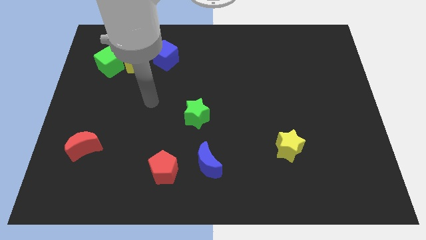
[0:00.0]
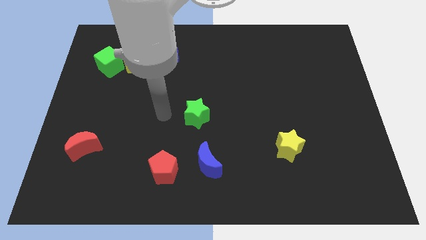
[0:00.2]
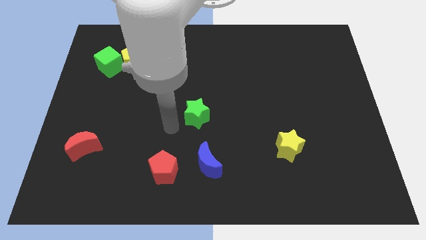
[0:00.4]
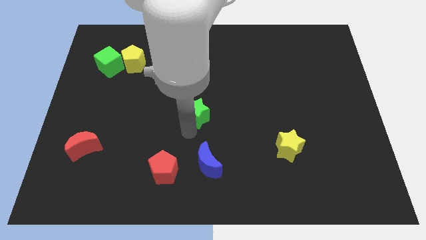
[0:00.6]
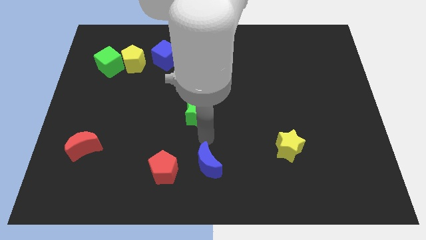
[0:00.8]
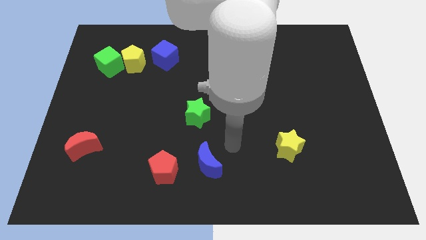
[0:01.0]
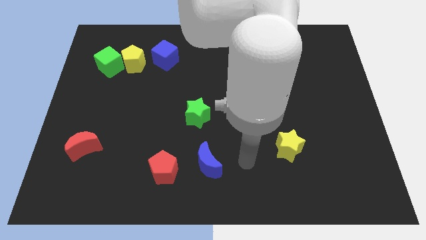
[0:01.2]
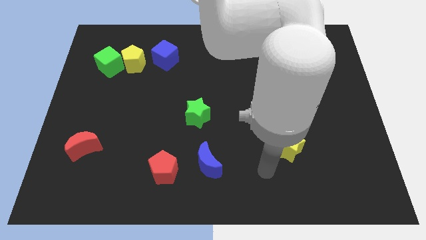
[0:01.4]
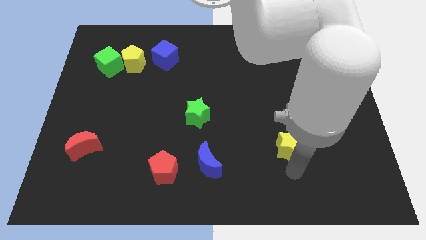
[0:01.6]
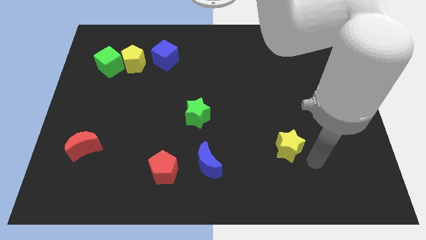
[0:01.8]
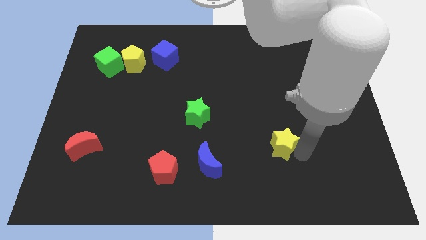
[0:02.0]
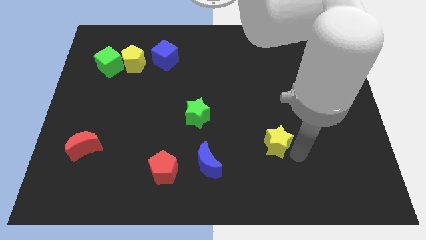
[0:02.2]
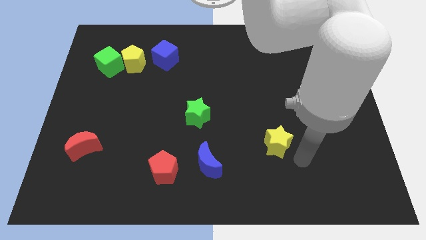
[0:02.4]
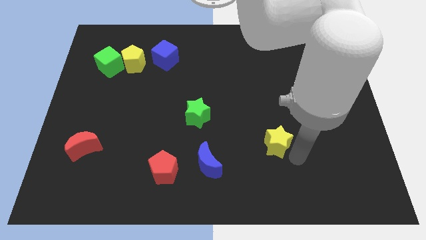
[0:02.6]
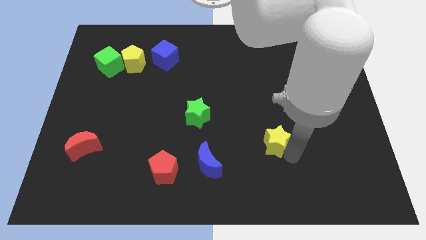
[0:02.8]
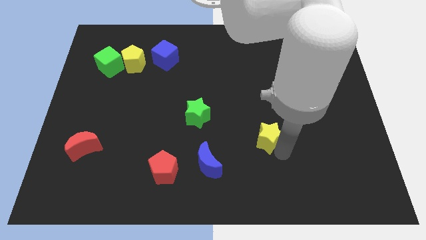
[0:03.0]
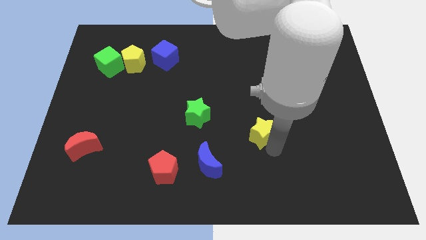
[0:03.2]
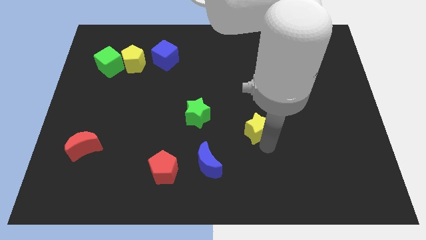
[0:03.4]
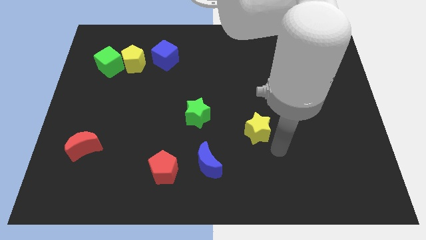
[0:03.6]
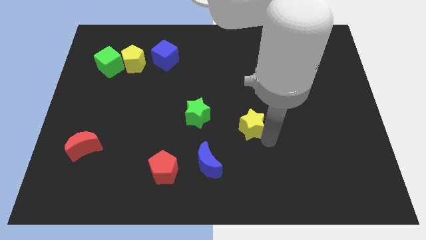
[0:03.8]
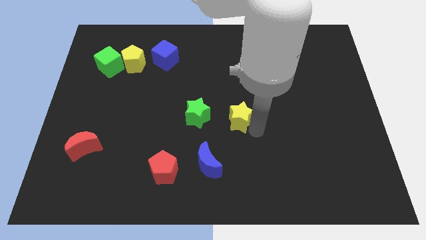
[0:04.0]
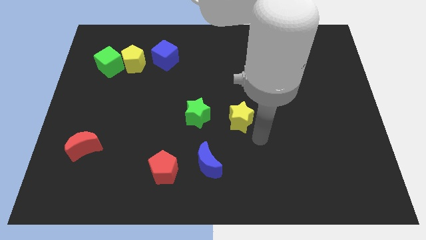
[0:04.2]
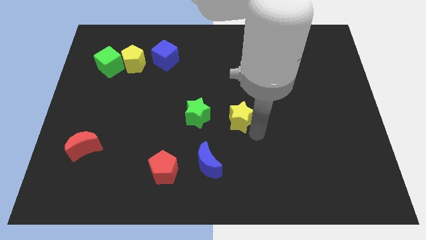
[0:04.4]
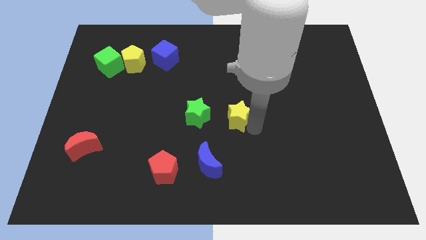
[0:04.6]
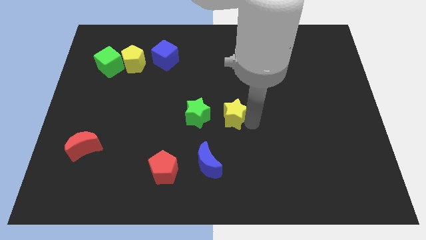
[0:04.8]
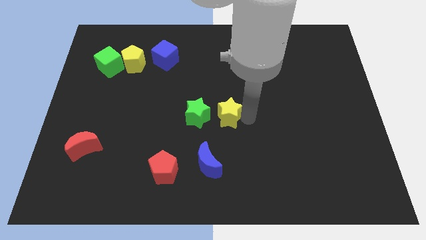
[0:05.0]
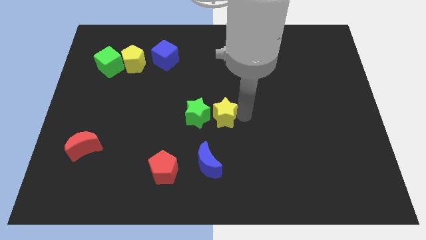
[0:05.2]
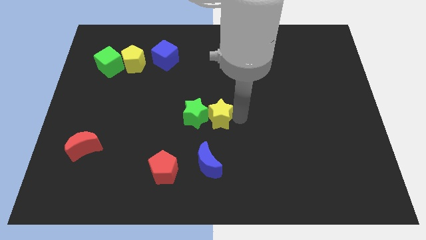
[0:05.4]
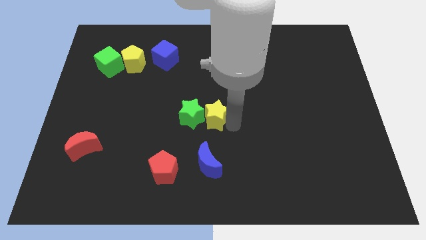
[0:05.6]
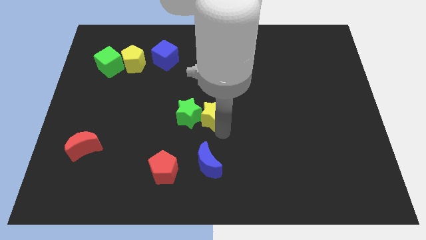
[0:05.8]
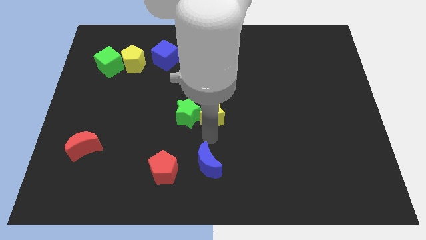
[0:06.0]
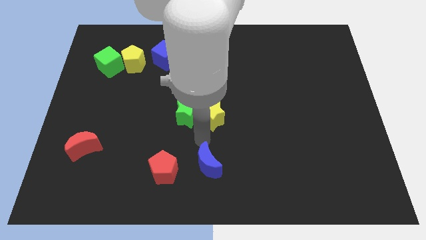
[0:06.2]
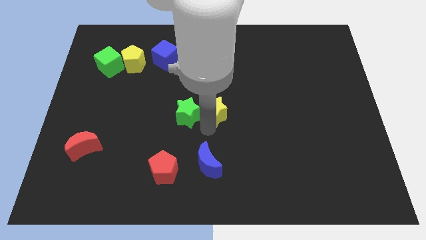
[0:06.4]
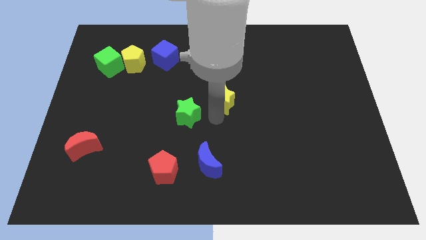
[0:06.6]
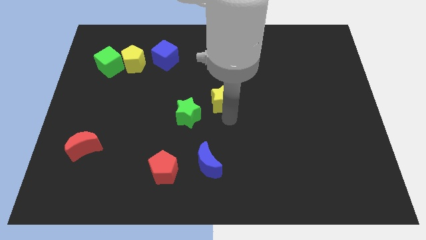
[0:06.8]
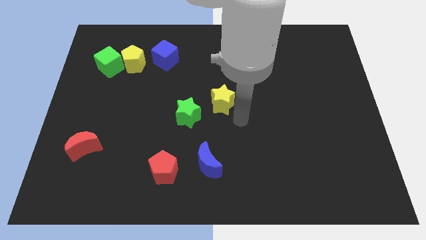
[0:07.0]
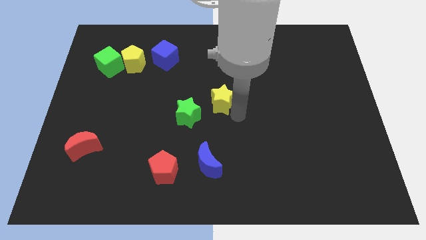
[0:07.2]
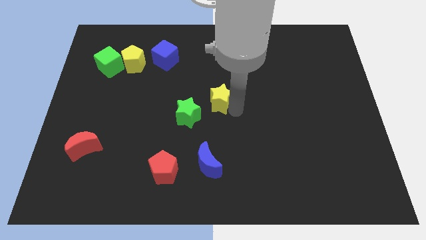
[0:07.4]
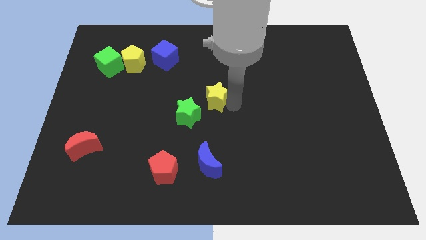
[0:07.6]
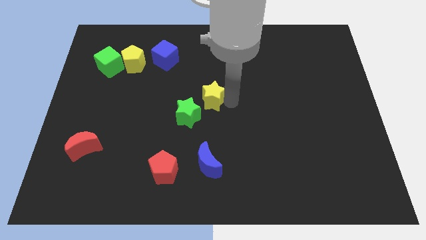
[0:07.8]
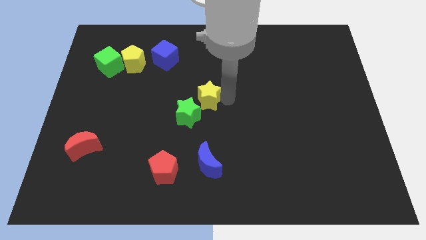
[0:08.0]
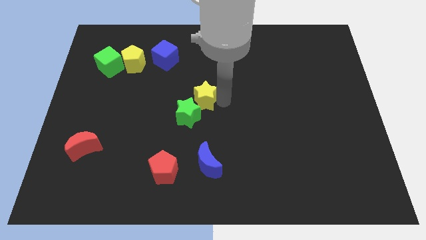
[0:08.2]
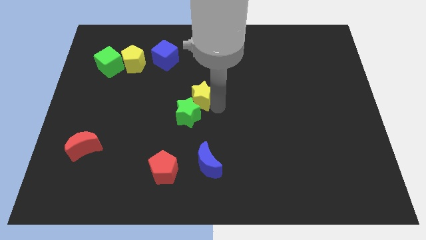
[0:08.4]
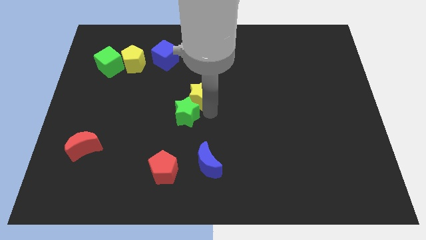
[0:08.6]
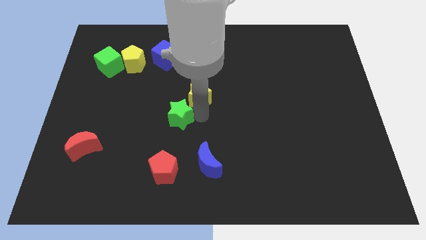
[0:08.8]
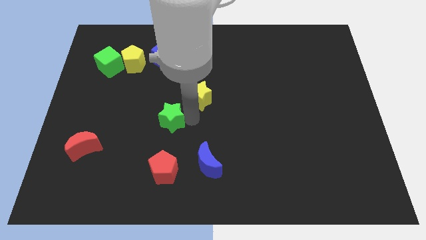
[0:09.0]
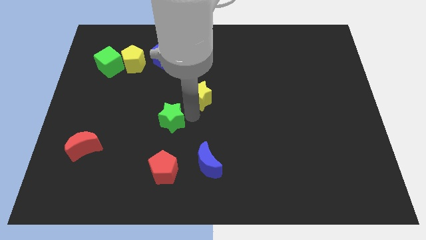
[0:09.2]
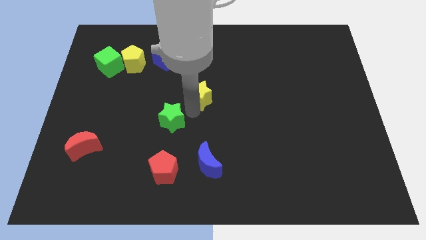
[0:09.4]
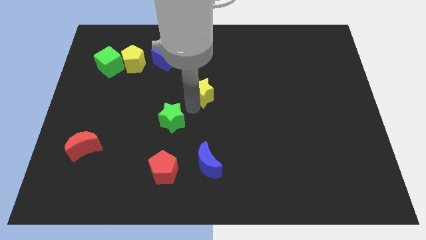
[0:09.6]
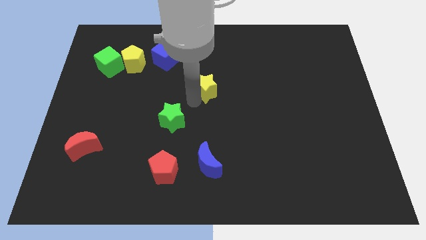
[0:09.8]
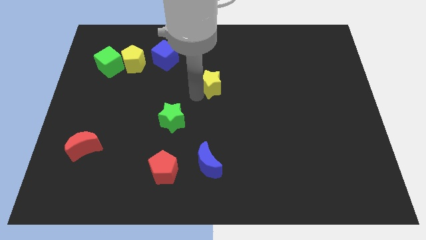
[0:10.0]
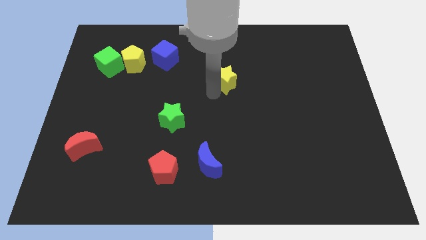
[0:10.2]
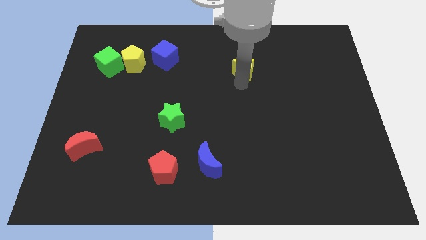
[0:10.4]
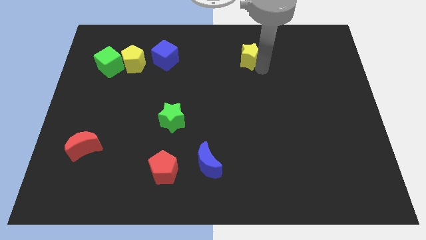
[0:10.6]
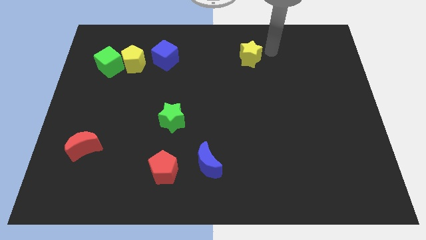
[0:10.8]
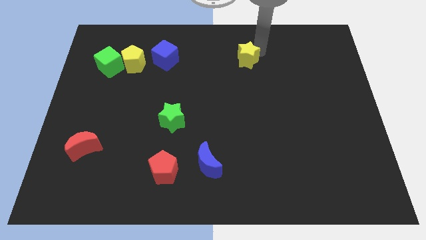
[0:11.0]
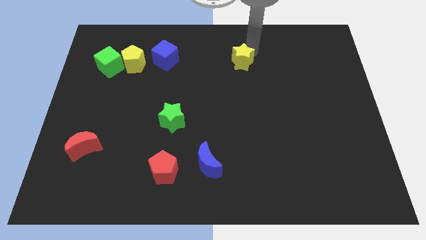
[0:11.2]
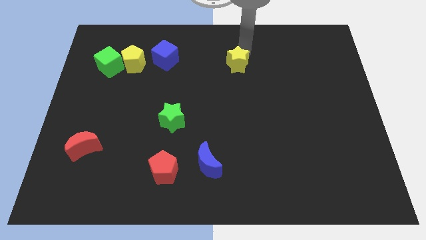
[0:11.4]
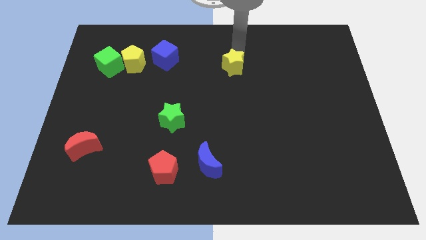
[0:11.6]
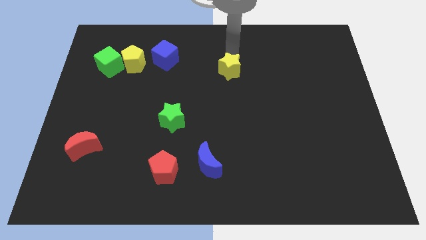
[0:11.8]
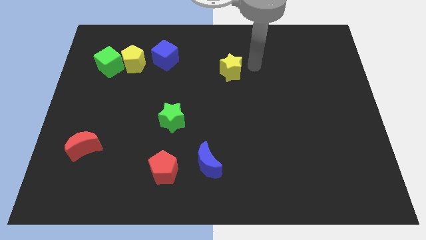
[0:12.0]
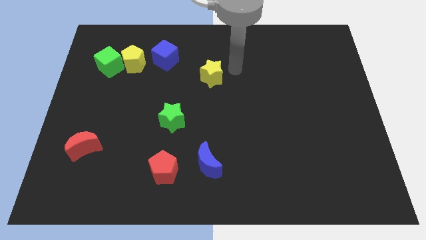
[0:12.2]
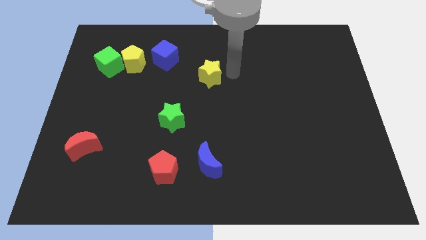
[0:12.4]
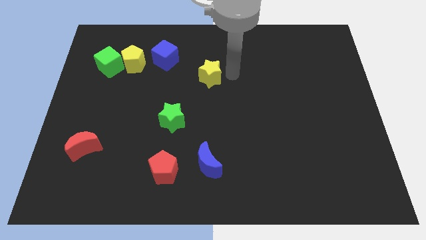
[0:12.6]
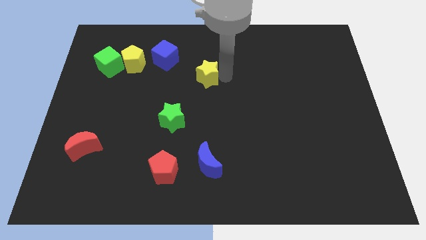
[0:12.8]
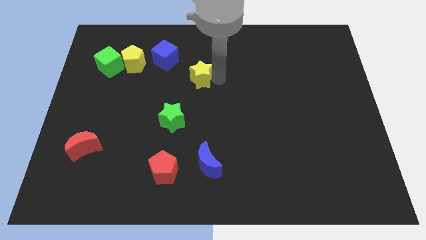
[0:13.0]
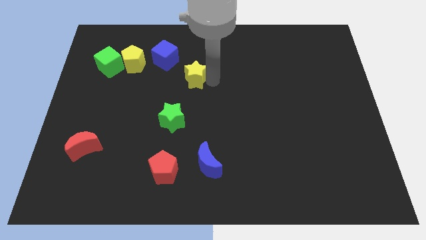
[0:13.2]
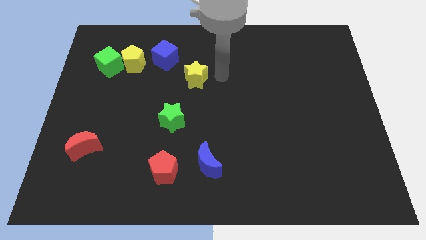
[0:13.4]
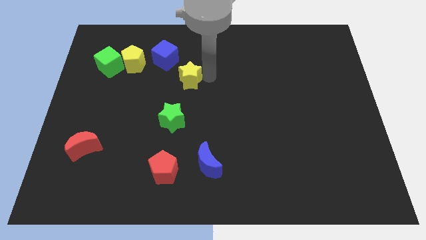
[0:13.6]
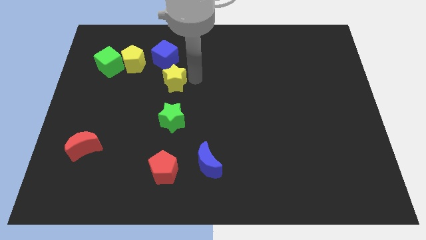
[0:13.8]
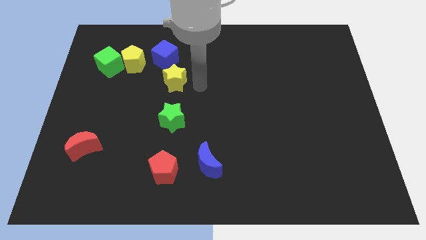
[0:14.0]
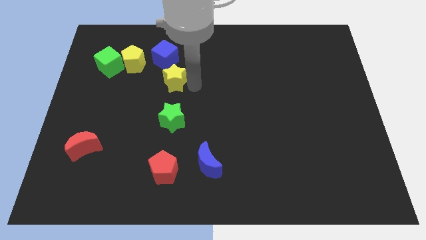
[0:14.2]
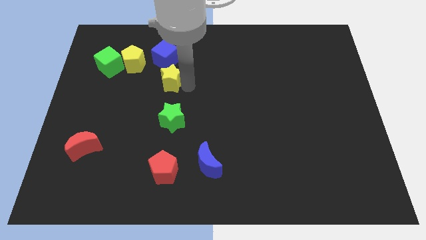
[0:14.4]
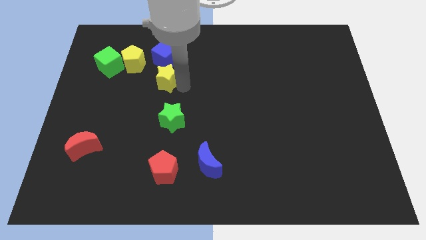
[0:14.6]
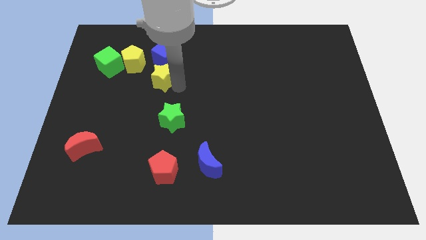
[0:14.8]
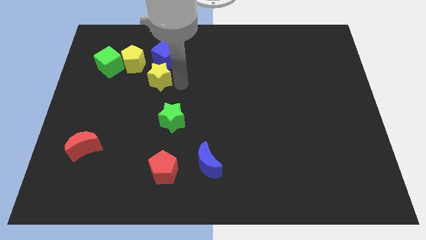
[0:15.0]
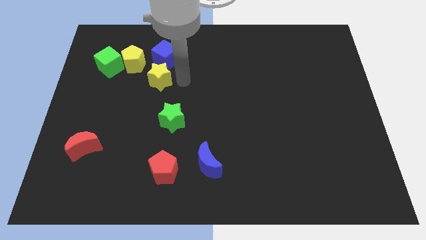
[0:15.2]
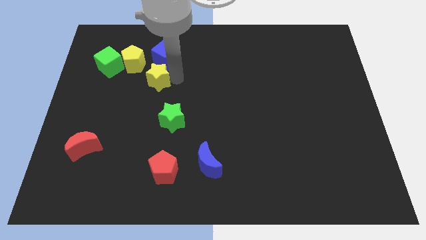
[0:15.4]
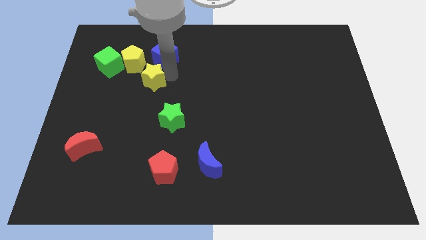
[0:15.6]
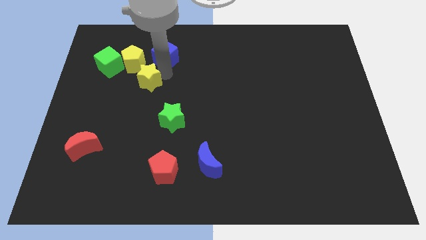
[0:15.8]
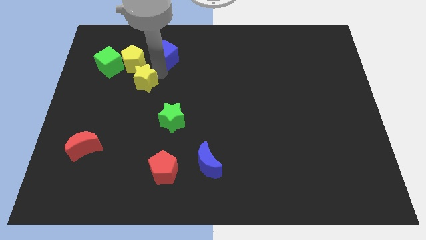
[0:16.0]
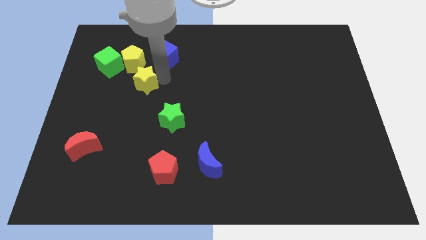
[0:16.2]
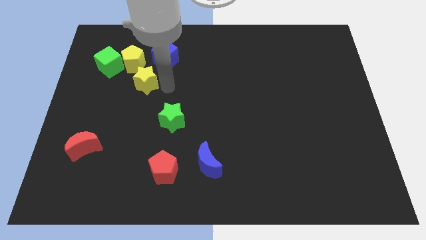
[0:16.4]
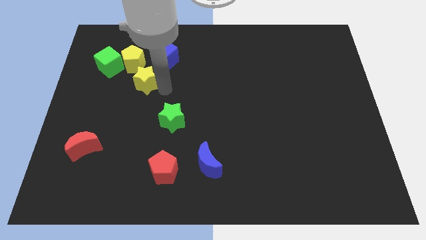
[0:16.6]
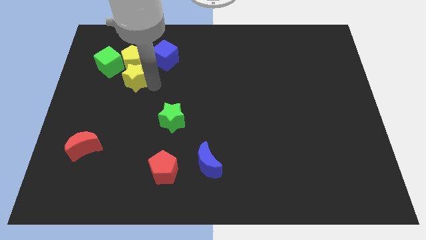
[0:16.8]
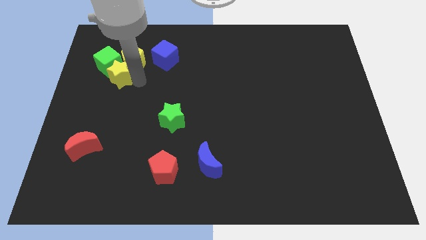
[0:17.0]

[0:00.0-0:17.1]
slide the yellow star next to the green cube
